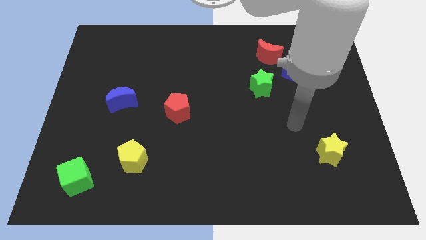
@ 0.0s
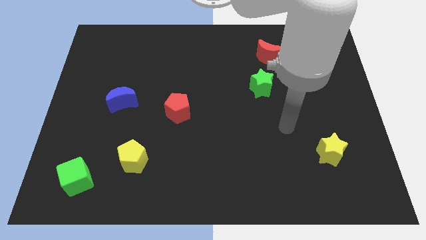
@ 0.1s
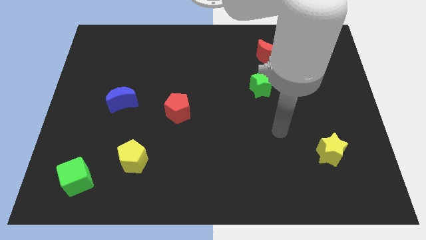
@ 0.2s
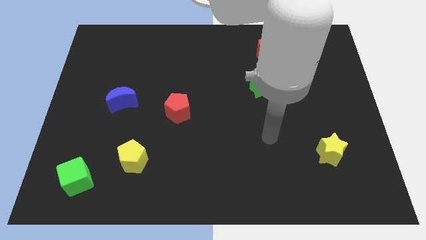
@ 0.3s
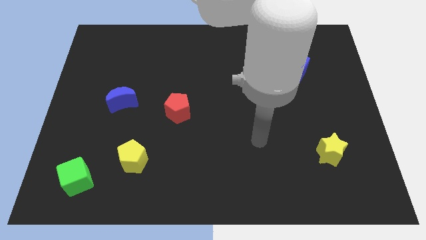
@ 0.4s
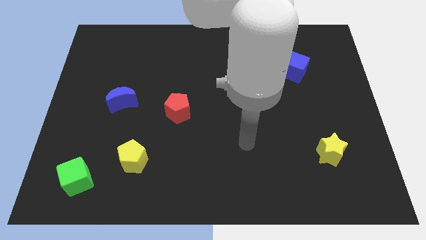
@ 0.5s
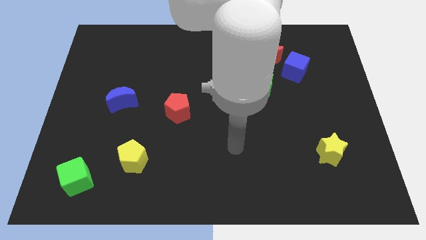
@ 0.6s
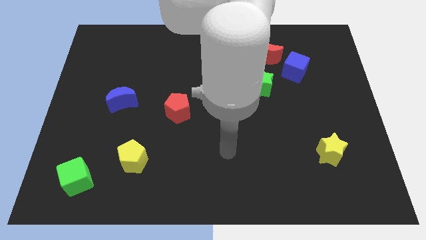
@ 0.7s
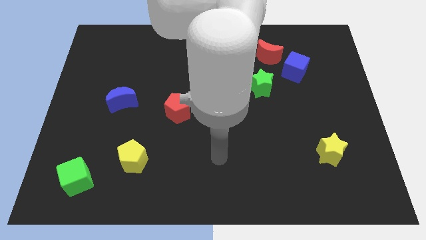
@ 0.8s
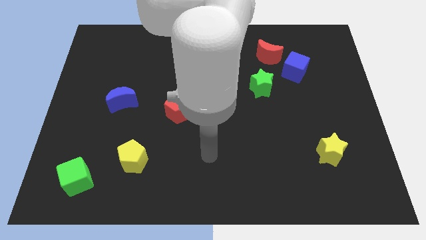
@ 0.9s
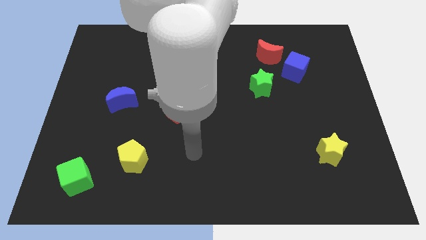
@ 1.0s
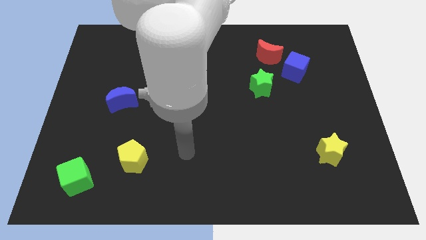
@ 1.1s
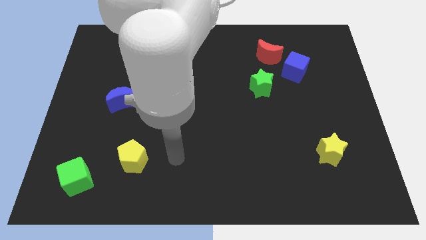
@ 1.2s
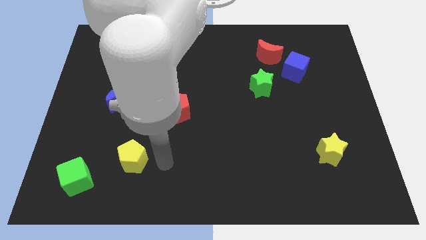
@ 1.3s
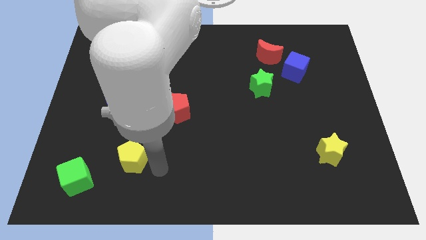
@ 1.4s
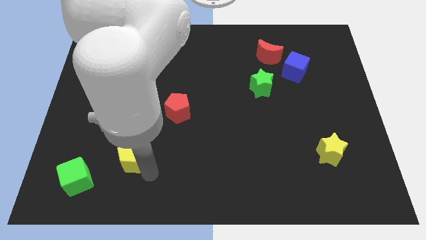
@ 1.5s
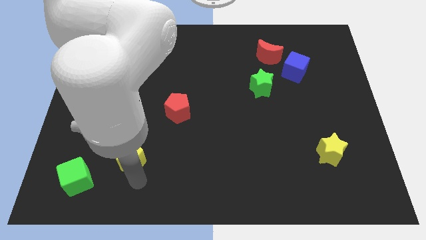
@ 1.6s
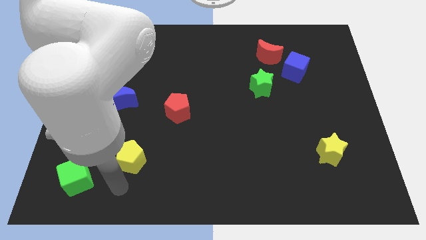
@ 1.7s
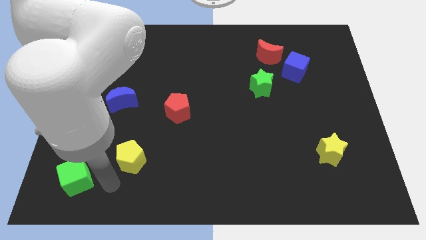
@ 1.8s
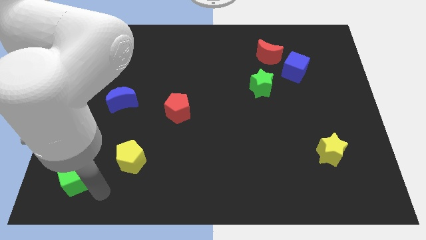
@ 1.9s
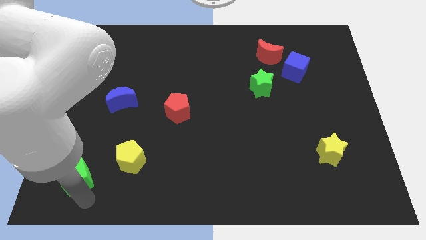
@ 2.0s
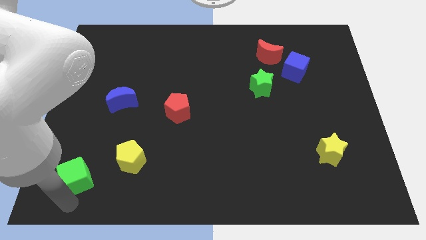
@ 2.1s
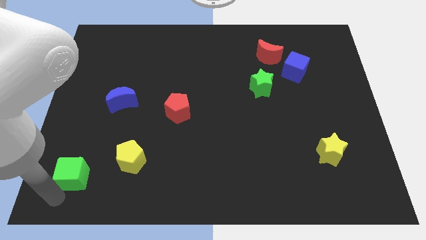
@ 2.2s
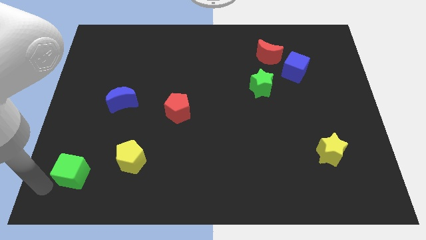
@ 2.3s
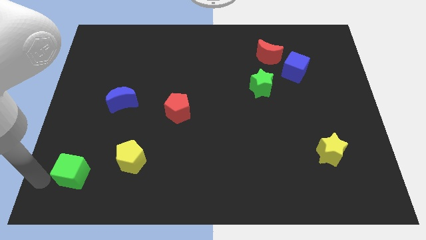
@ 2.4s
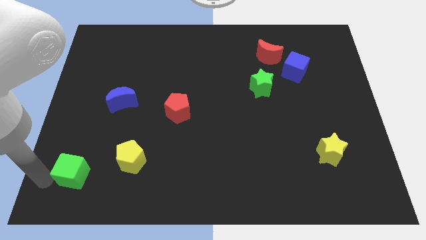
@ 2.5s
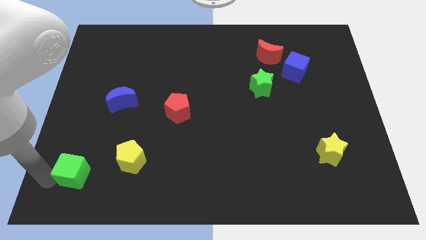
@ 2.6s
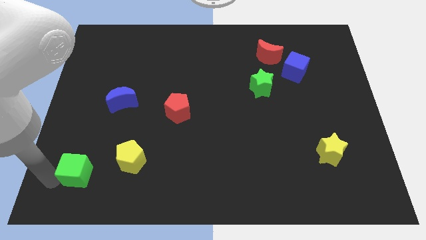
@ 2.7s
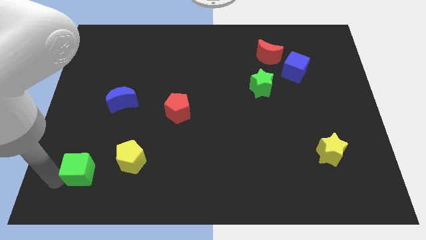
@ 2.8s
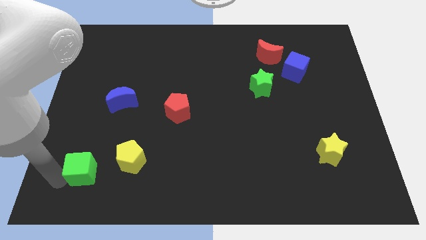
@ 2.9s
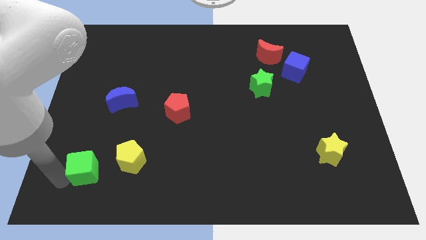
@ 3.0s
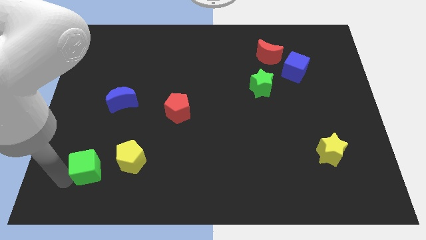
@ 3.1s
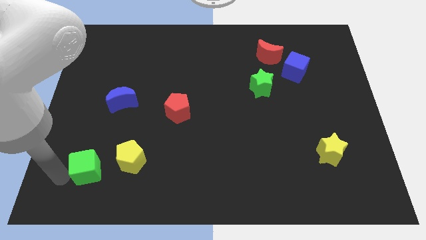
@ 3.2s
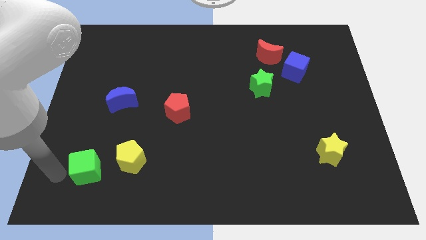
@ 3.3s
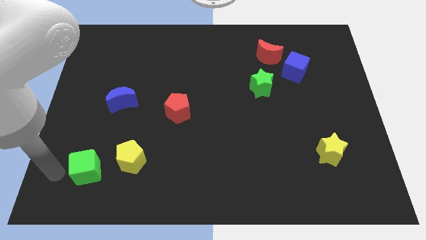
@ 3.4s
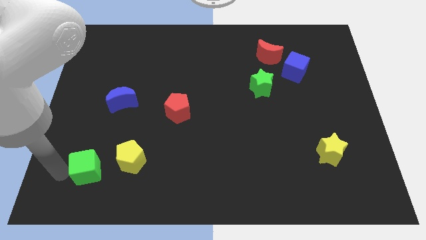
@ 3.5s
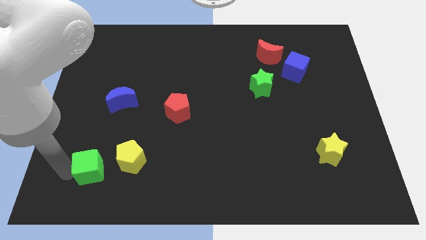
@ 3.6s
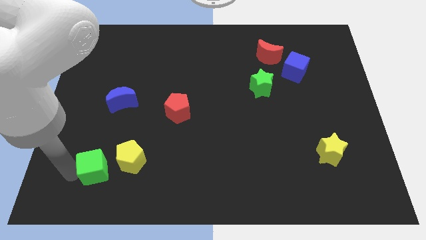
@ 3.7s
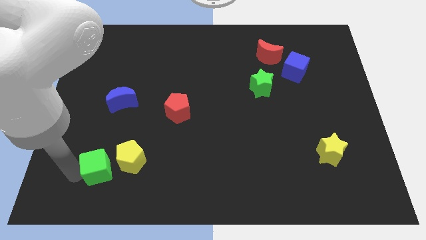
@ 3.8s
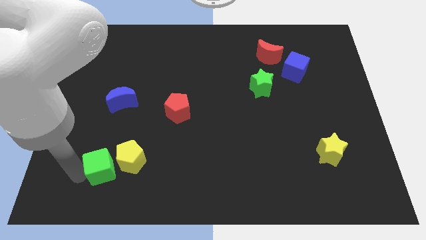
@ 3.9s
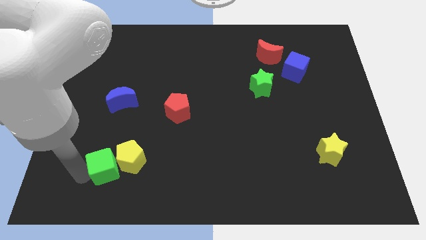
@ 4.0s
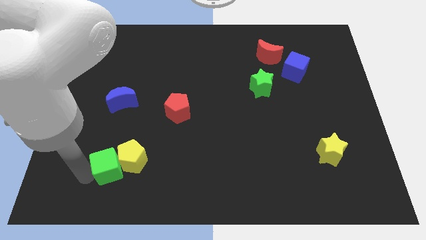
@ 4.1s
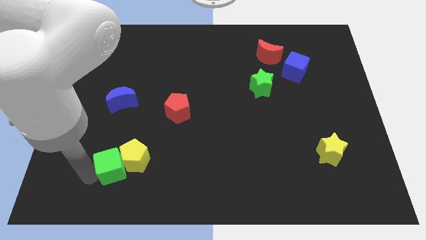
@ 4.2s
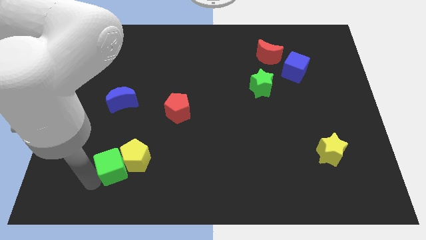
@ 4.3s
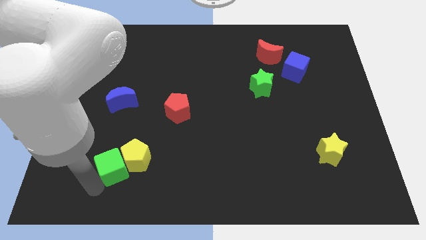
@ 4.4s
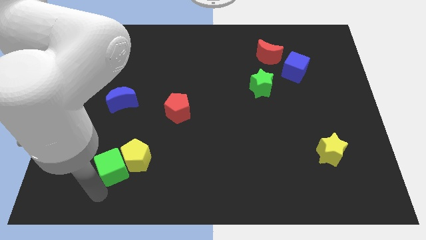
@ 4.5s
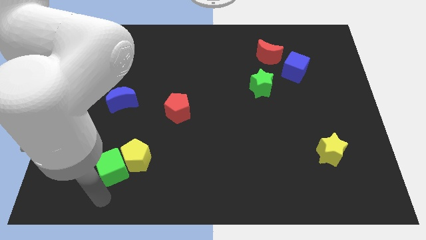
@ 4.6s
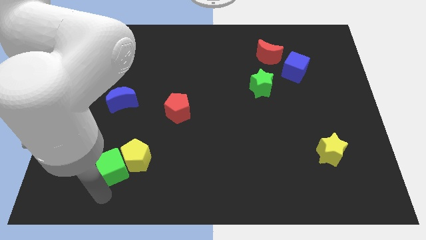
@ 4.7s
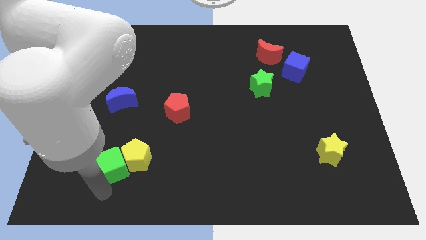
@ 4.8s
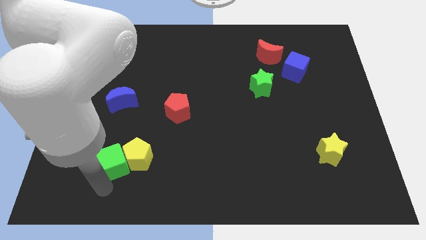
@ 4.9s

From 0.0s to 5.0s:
slide the green cube up and right diagonally a little

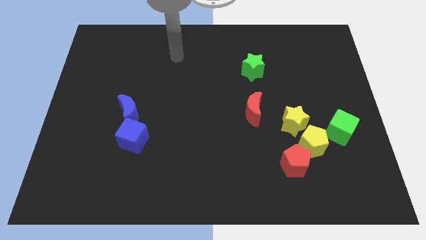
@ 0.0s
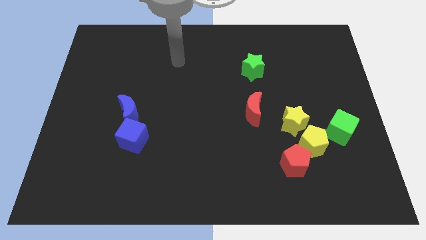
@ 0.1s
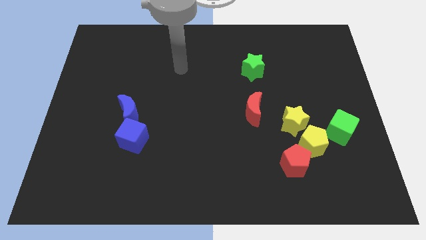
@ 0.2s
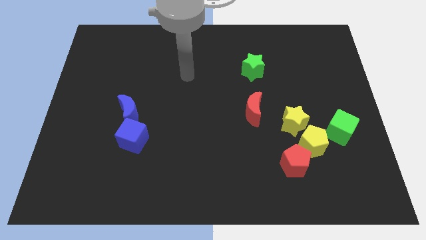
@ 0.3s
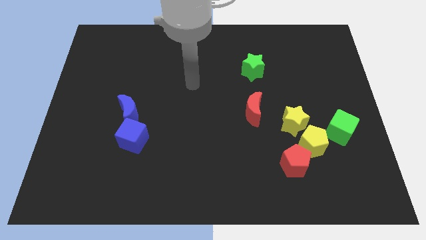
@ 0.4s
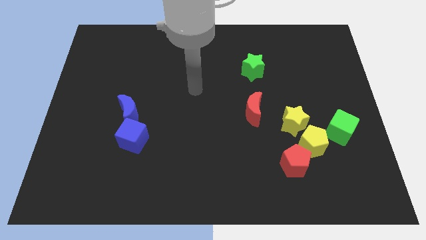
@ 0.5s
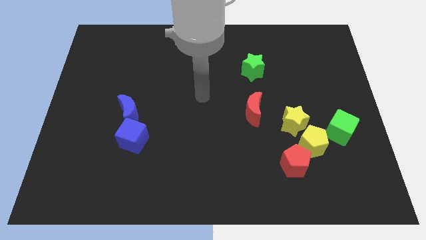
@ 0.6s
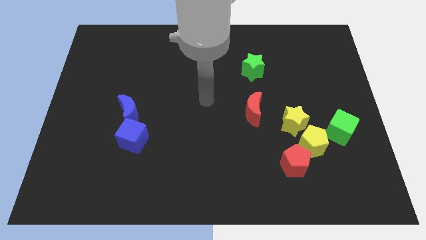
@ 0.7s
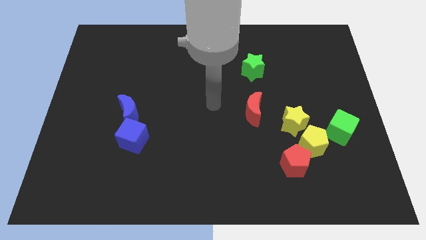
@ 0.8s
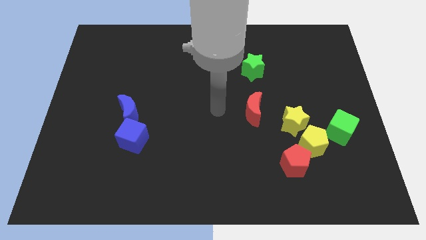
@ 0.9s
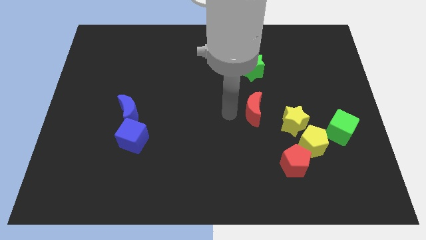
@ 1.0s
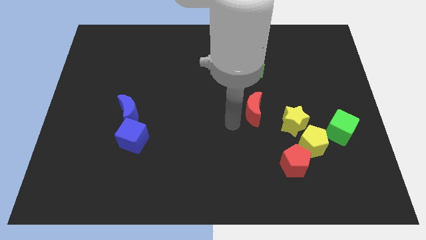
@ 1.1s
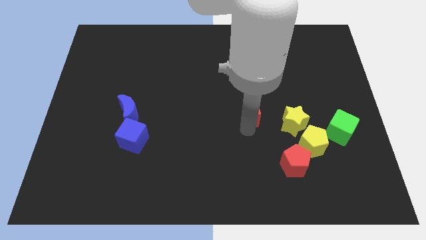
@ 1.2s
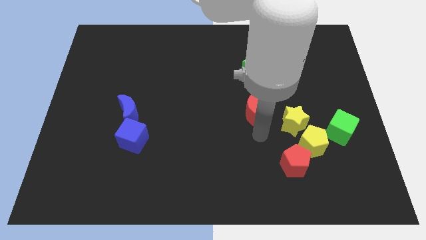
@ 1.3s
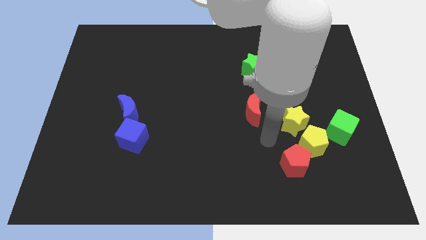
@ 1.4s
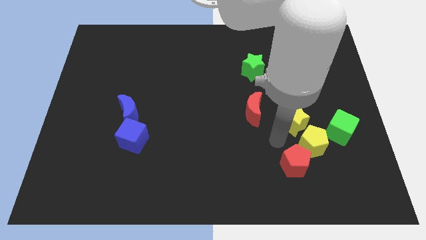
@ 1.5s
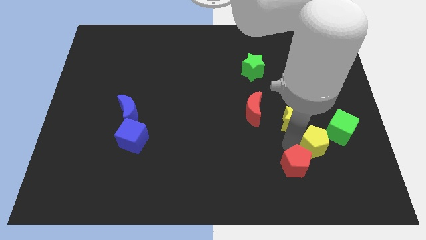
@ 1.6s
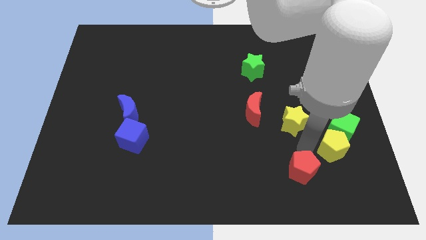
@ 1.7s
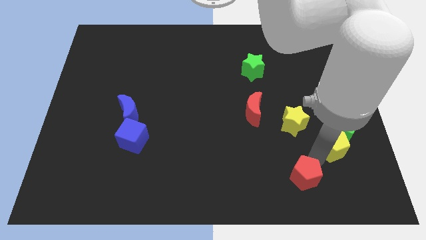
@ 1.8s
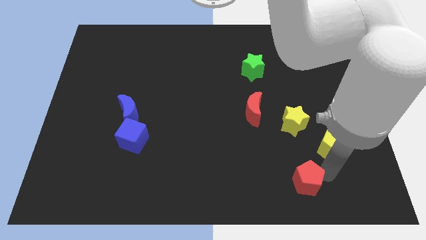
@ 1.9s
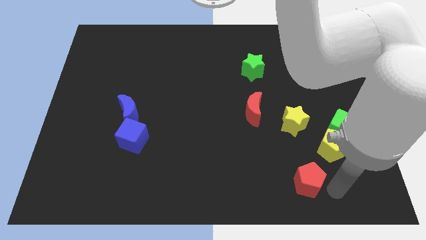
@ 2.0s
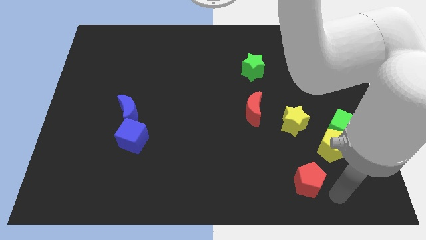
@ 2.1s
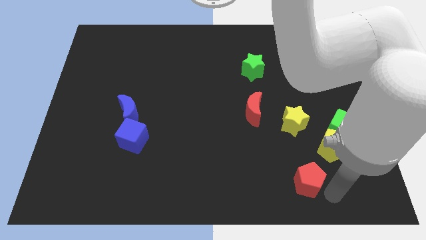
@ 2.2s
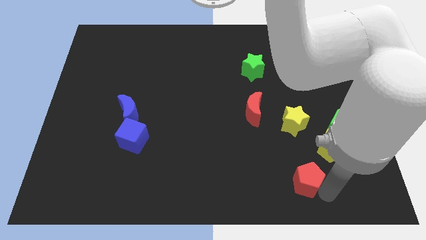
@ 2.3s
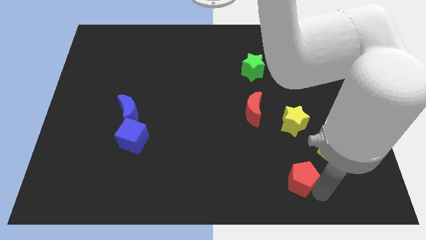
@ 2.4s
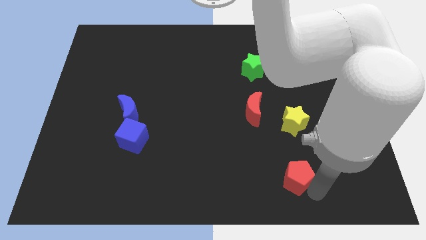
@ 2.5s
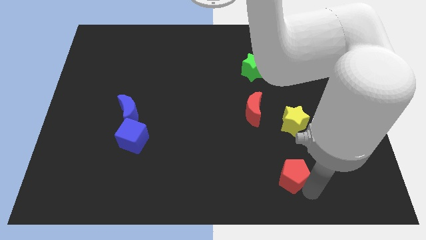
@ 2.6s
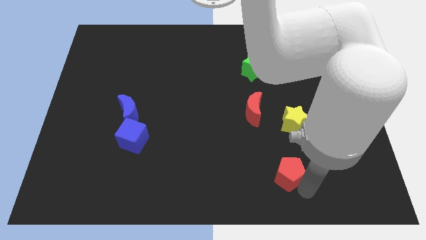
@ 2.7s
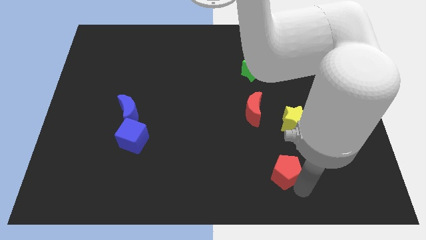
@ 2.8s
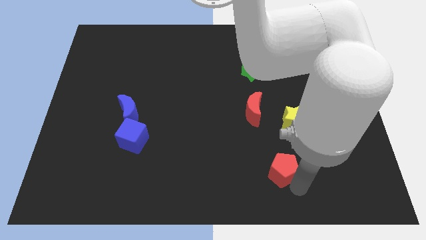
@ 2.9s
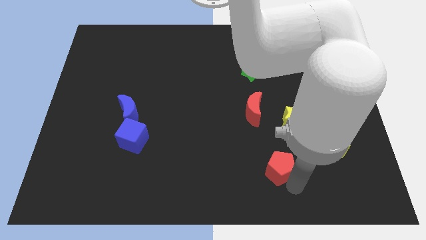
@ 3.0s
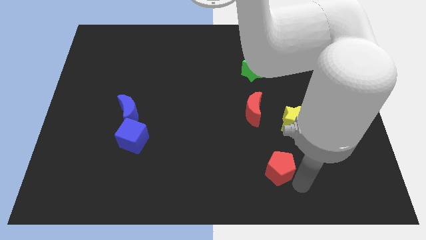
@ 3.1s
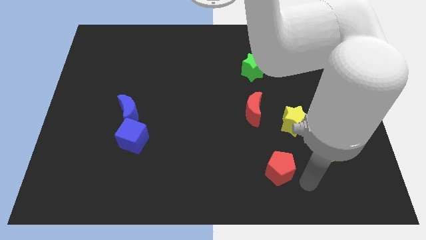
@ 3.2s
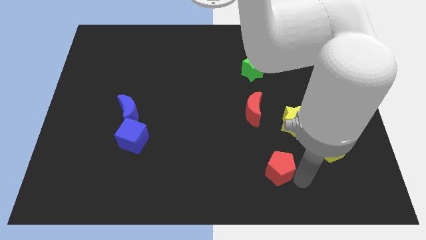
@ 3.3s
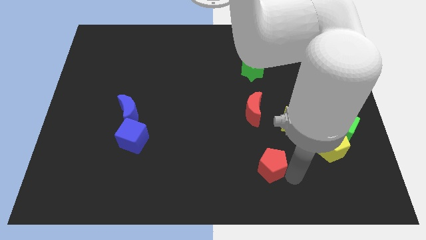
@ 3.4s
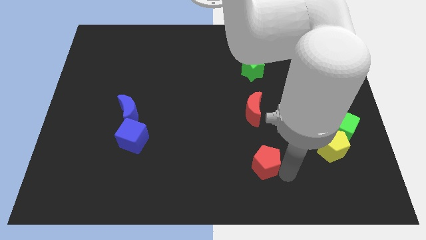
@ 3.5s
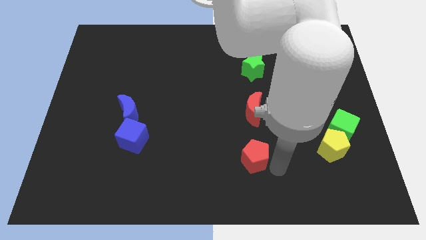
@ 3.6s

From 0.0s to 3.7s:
slide the red pentagon left a little
